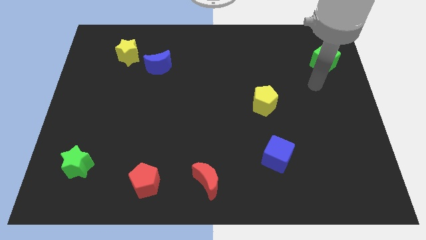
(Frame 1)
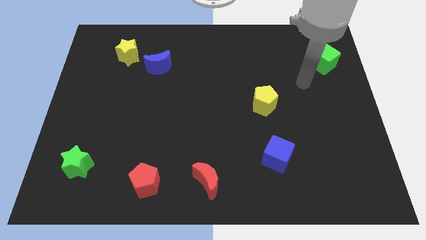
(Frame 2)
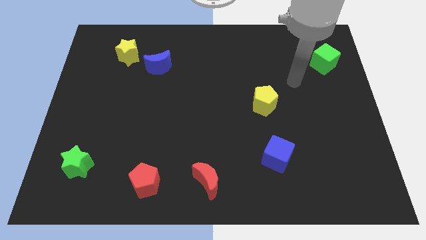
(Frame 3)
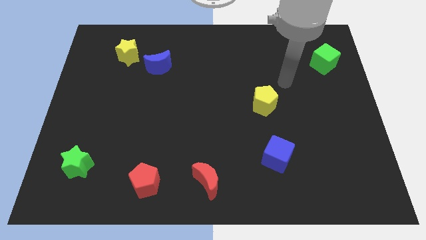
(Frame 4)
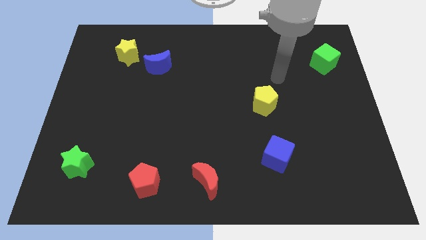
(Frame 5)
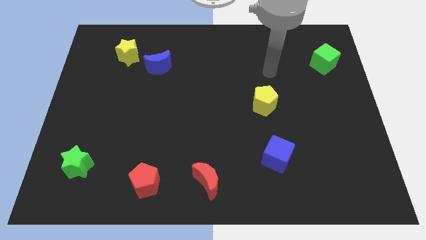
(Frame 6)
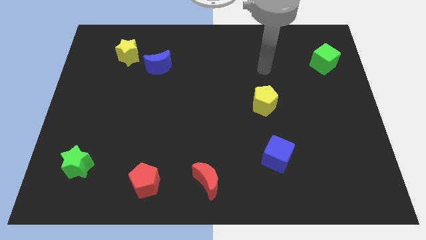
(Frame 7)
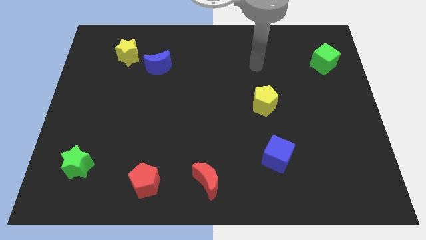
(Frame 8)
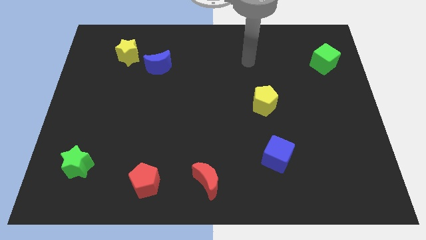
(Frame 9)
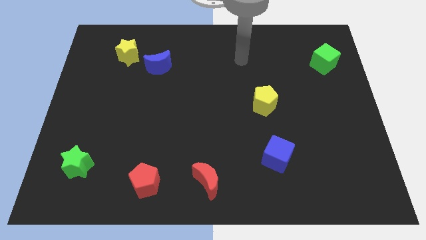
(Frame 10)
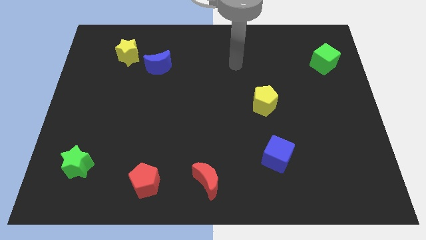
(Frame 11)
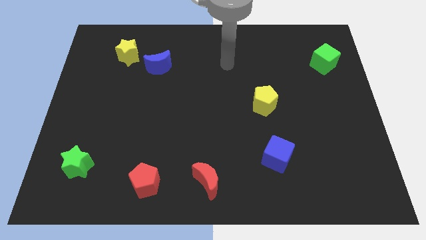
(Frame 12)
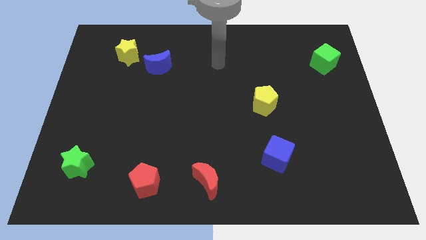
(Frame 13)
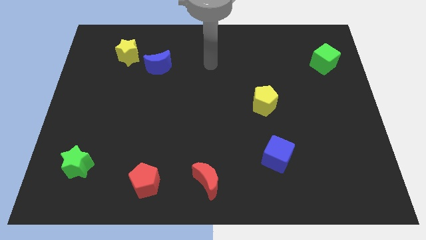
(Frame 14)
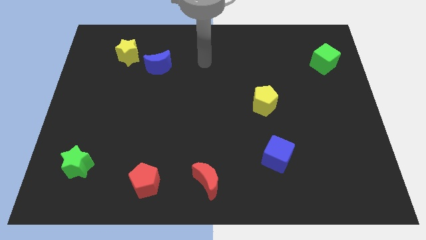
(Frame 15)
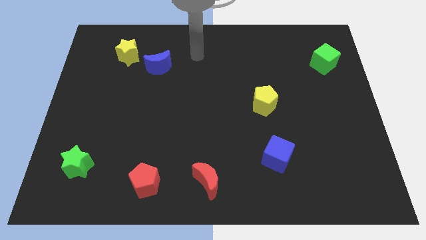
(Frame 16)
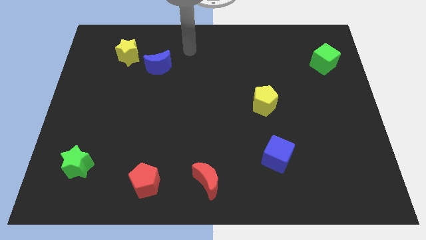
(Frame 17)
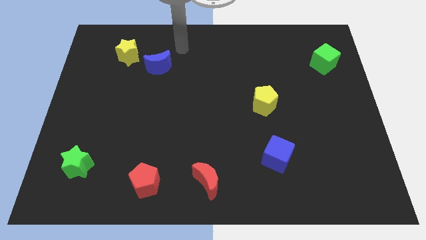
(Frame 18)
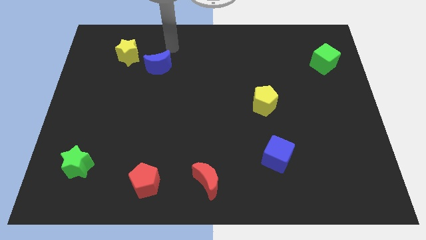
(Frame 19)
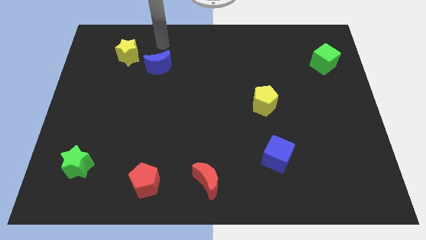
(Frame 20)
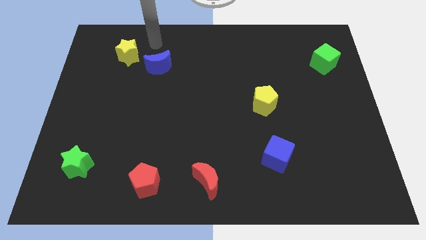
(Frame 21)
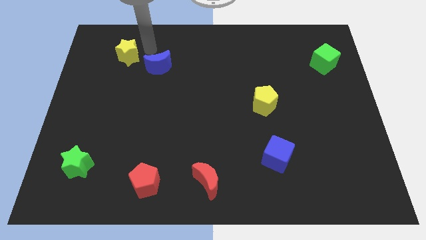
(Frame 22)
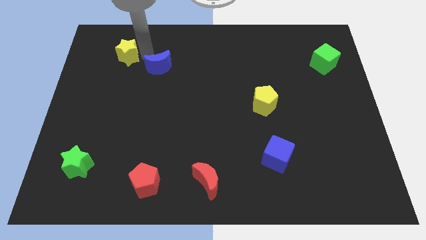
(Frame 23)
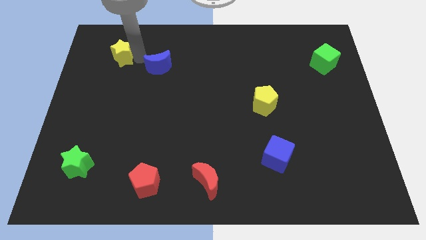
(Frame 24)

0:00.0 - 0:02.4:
move the blue moon away from the yellow star

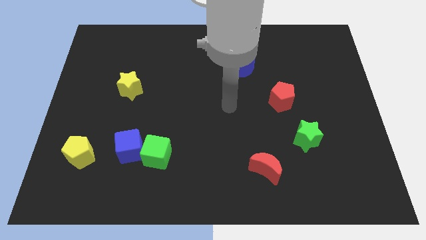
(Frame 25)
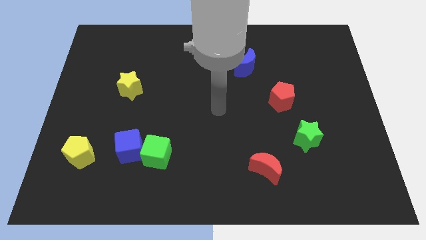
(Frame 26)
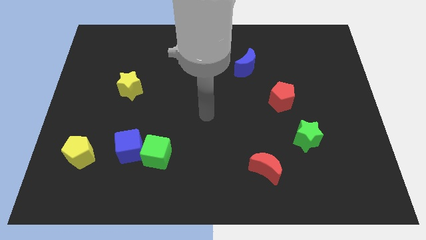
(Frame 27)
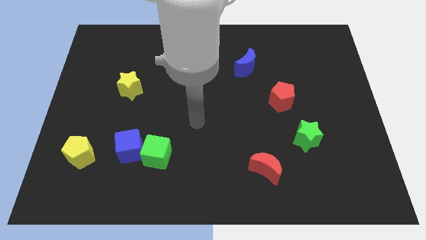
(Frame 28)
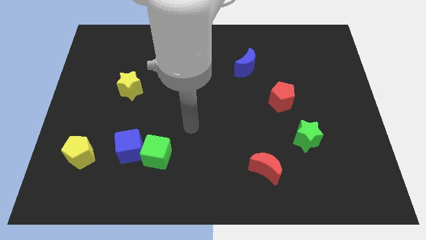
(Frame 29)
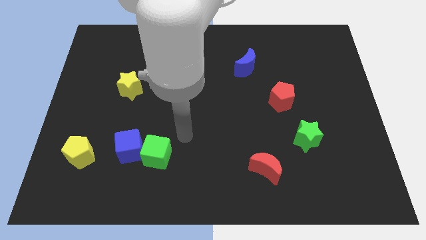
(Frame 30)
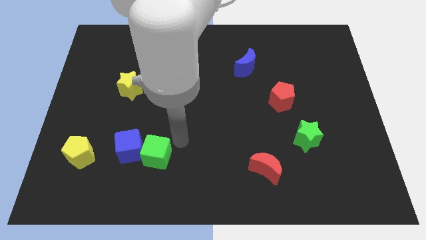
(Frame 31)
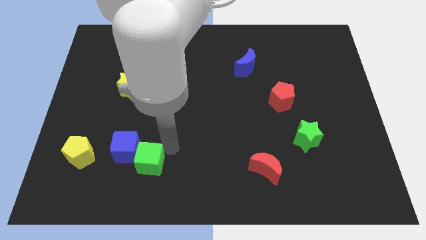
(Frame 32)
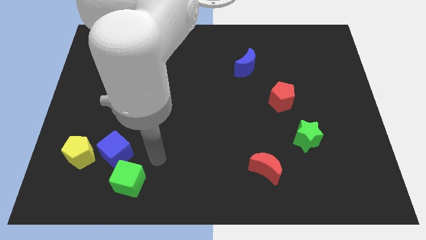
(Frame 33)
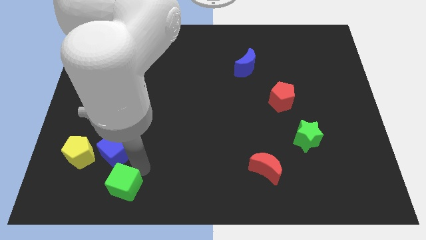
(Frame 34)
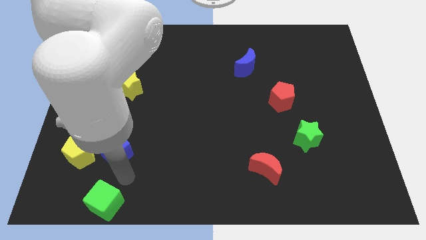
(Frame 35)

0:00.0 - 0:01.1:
pull the blue cube apart from the green cube

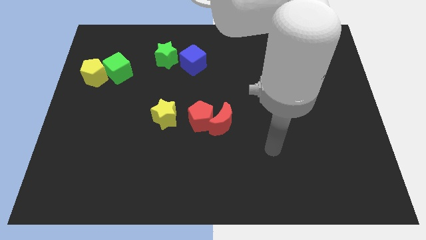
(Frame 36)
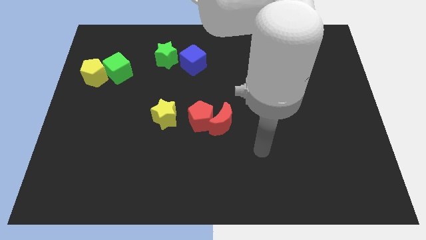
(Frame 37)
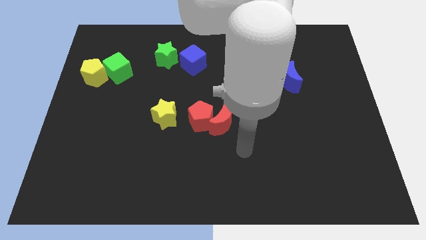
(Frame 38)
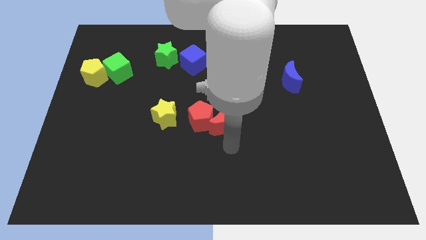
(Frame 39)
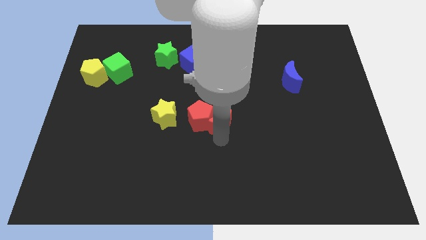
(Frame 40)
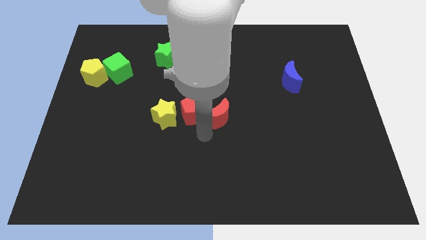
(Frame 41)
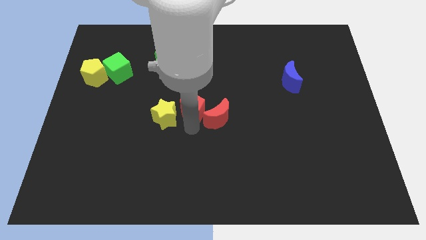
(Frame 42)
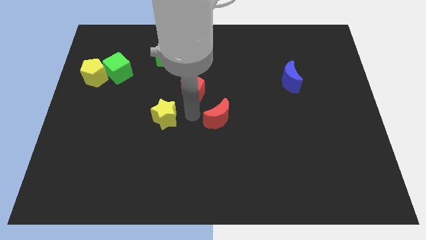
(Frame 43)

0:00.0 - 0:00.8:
separate the red moon from the red pentagon

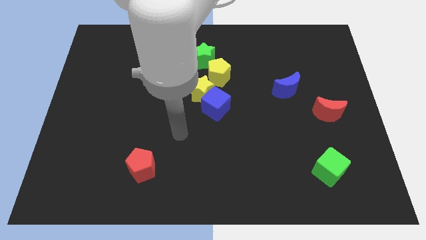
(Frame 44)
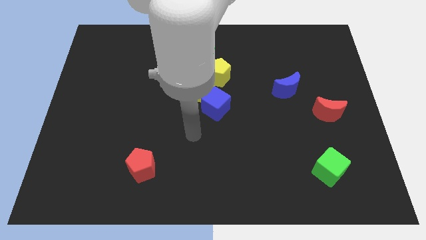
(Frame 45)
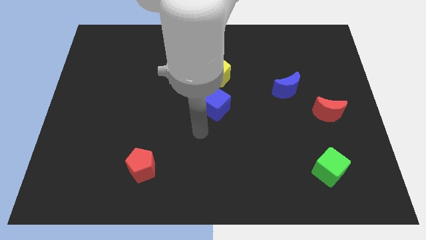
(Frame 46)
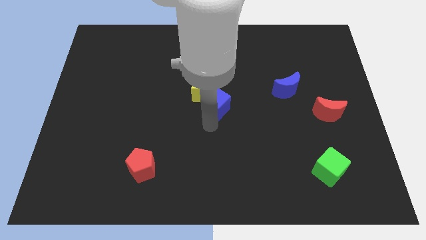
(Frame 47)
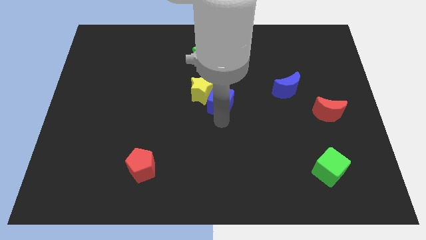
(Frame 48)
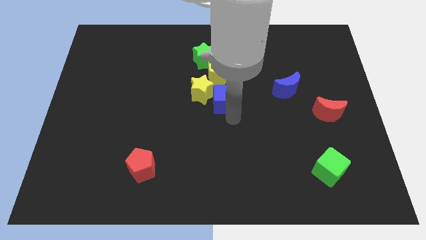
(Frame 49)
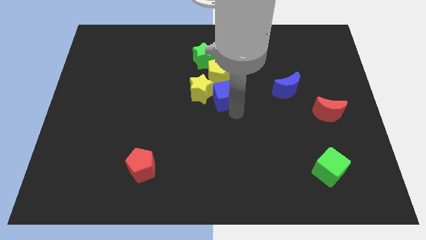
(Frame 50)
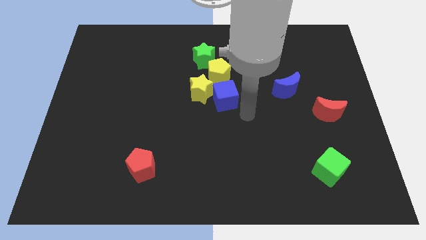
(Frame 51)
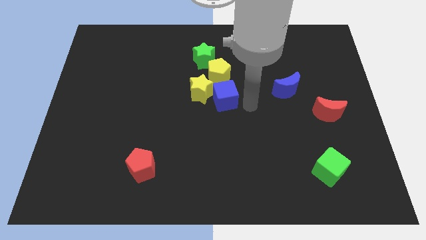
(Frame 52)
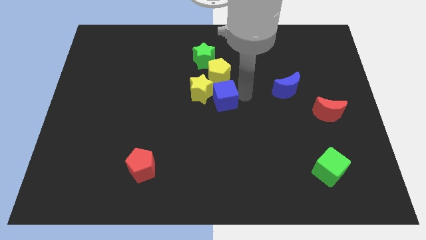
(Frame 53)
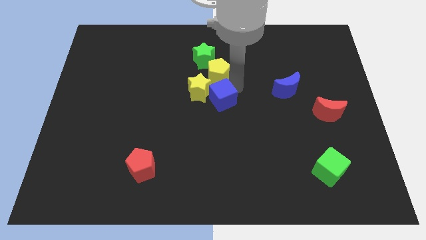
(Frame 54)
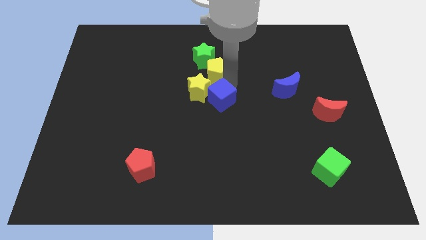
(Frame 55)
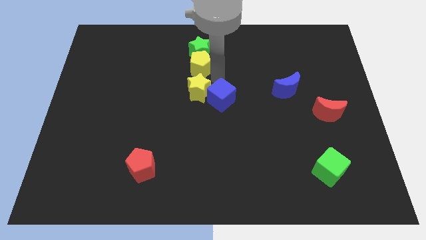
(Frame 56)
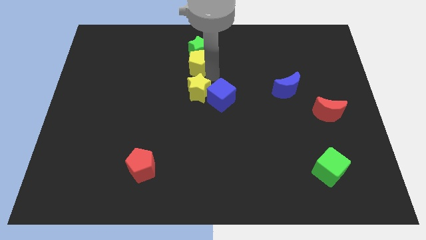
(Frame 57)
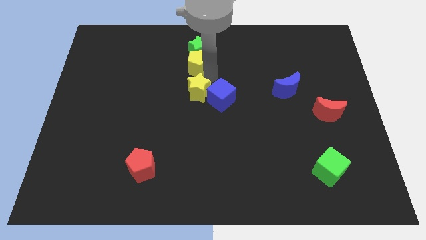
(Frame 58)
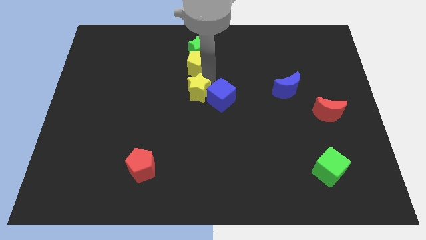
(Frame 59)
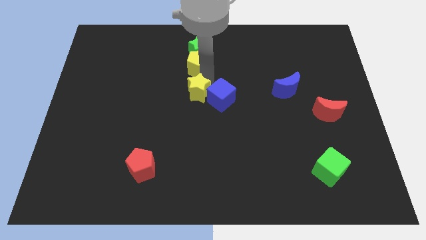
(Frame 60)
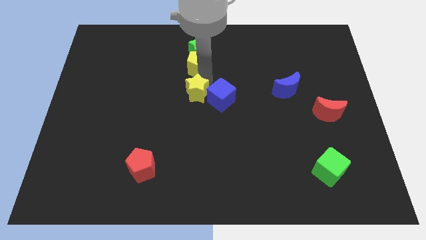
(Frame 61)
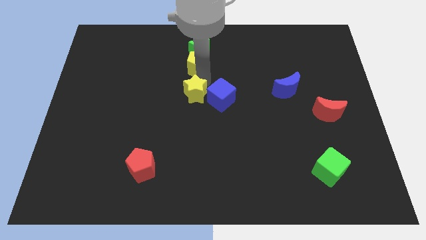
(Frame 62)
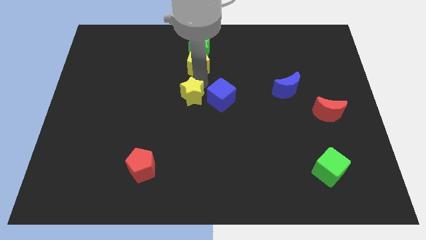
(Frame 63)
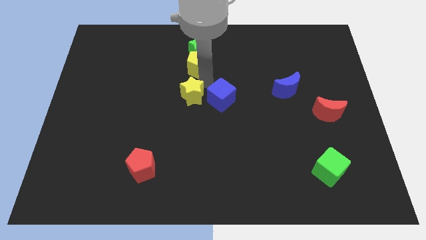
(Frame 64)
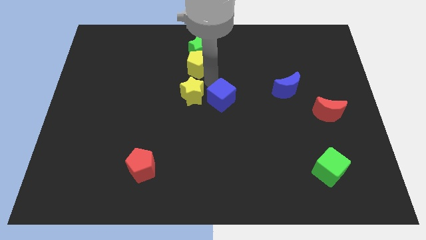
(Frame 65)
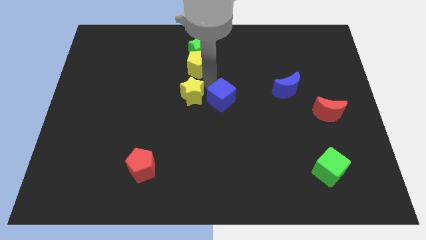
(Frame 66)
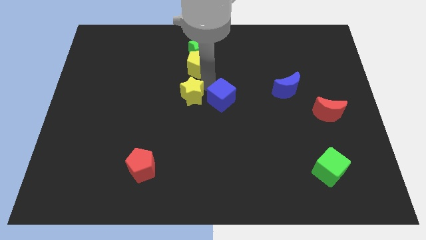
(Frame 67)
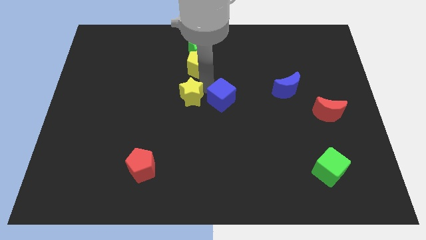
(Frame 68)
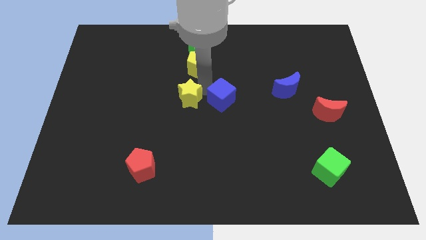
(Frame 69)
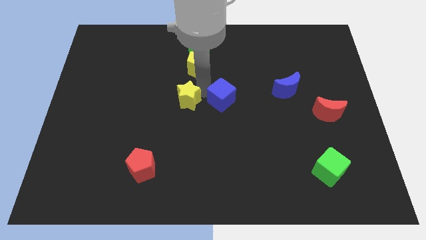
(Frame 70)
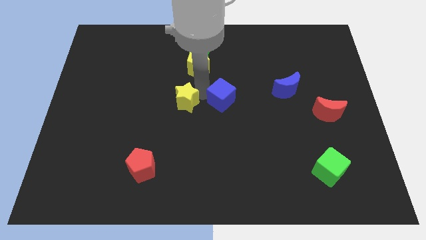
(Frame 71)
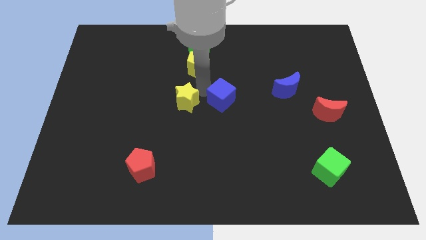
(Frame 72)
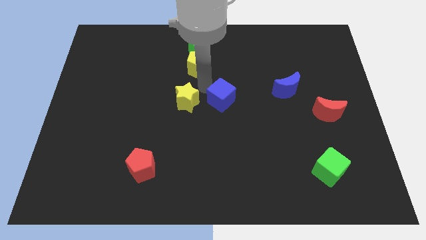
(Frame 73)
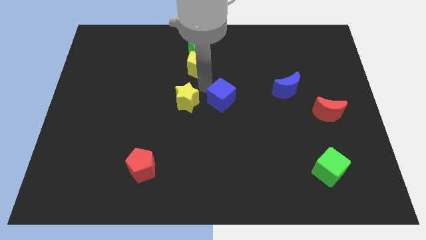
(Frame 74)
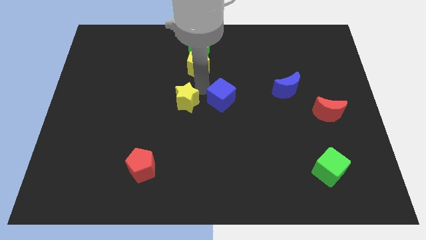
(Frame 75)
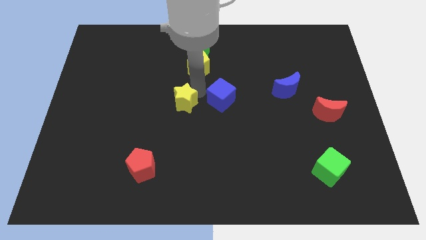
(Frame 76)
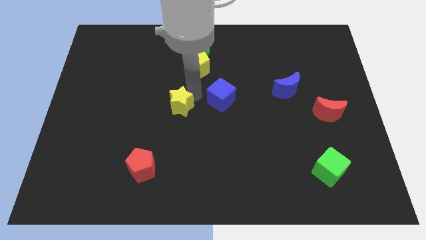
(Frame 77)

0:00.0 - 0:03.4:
separate the yellow star from the blue cube and yellow pentagon

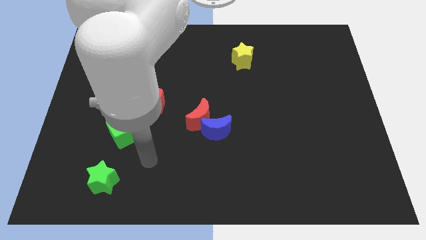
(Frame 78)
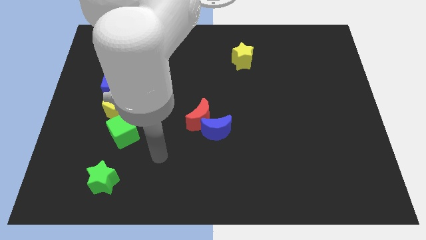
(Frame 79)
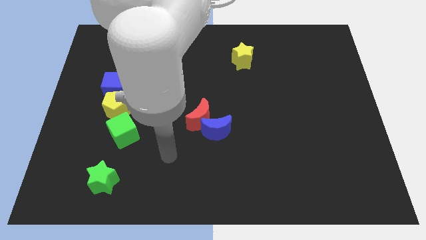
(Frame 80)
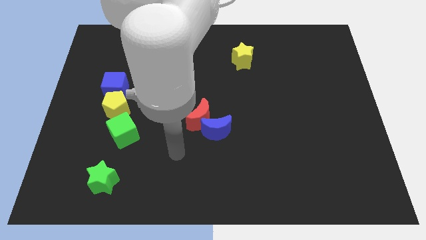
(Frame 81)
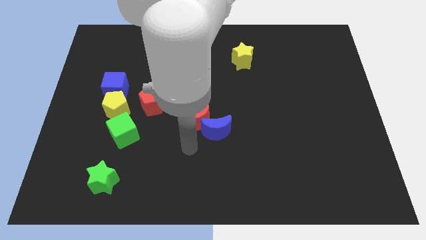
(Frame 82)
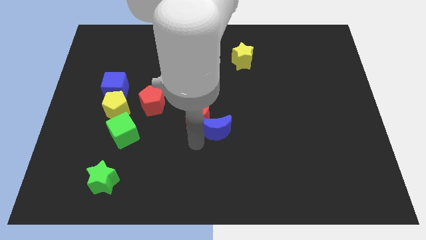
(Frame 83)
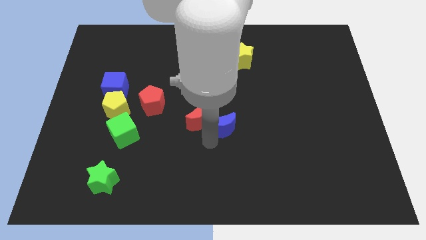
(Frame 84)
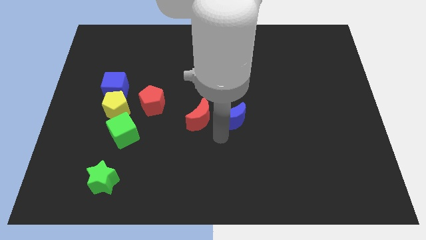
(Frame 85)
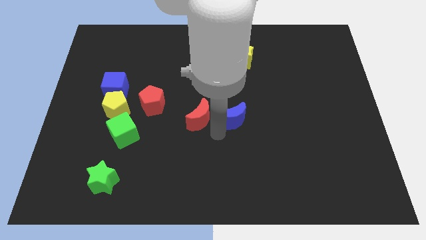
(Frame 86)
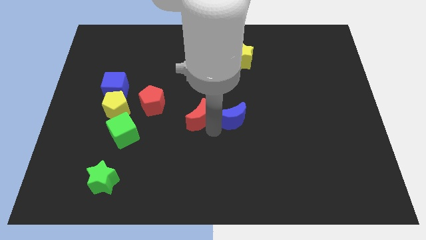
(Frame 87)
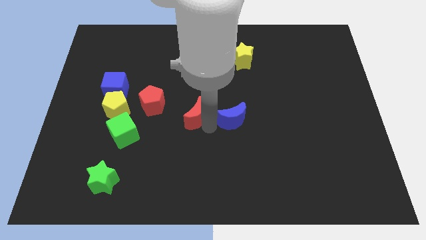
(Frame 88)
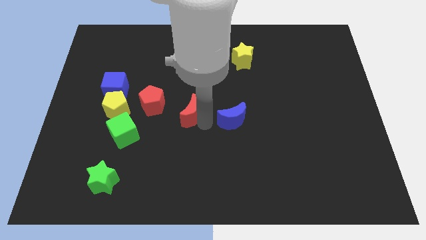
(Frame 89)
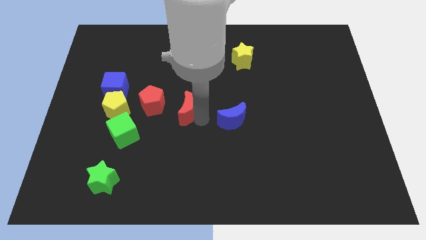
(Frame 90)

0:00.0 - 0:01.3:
pull the red moon apart from the blue moon

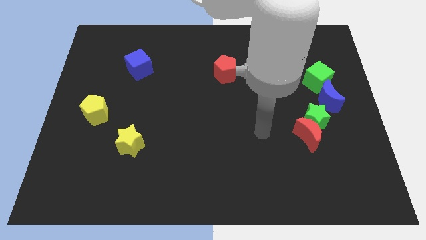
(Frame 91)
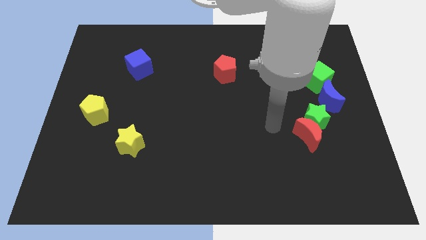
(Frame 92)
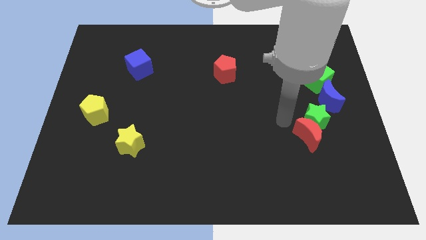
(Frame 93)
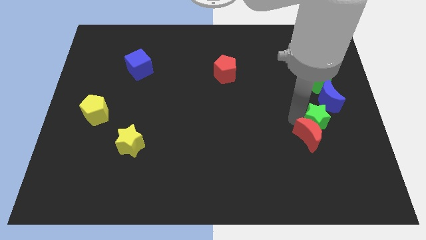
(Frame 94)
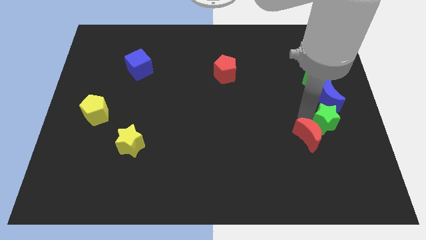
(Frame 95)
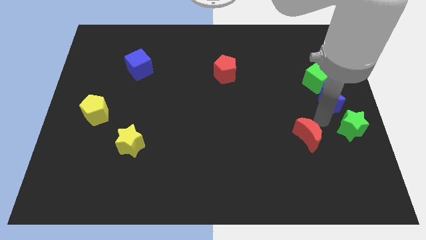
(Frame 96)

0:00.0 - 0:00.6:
separate the red moon from the green star
